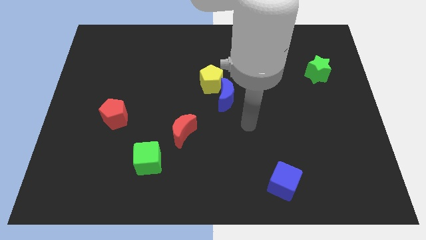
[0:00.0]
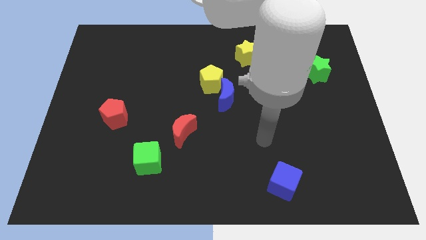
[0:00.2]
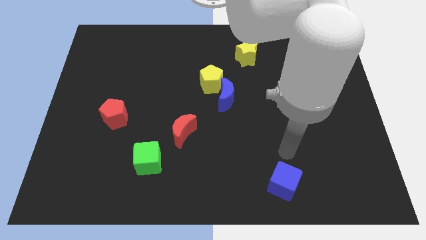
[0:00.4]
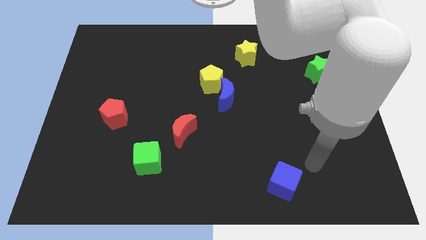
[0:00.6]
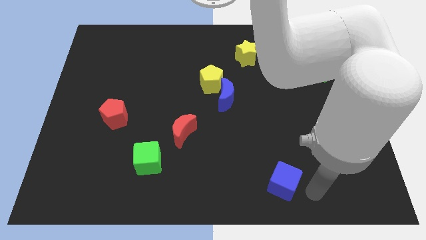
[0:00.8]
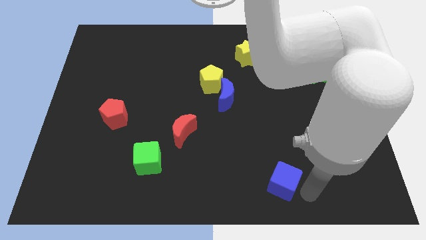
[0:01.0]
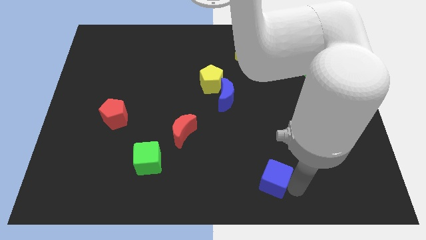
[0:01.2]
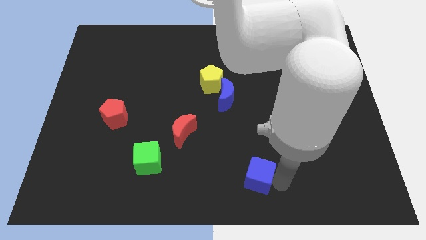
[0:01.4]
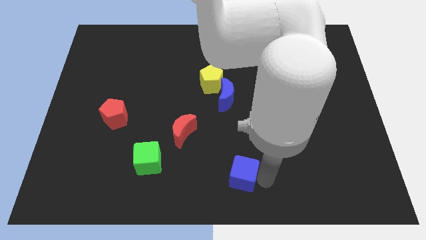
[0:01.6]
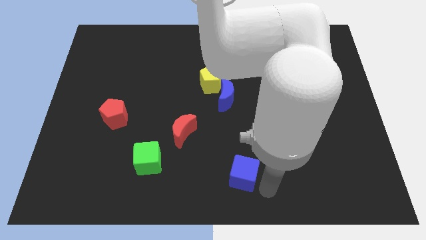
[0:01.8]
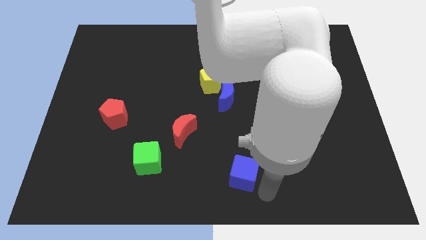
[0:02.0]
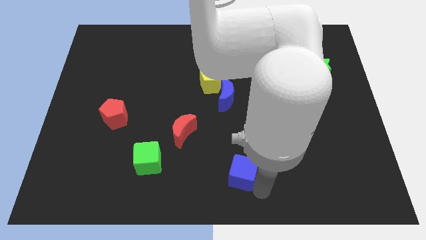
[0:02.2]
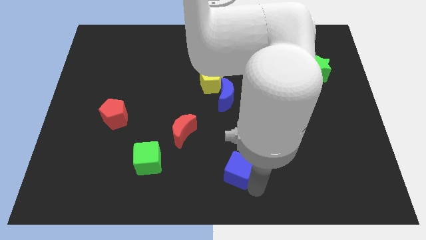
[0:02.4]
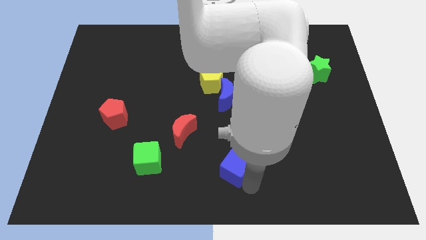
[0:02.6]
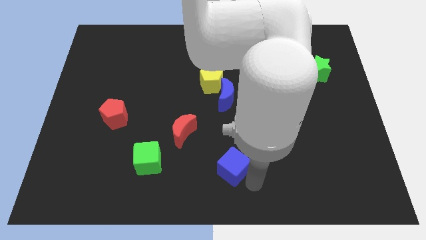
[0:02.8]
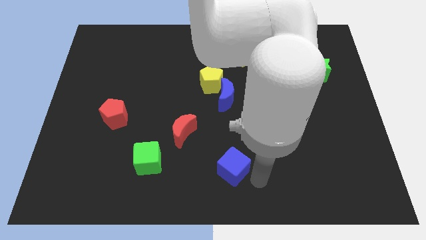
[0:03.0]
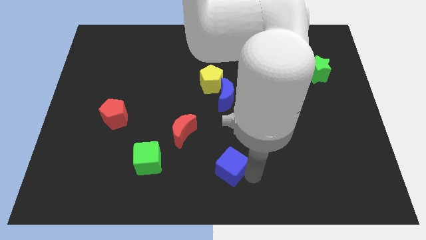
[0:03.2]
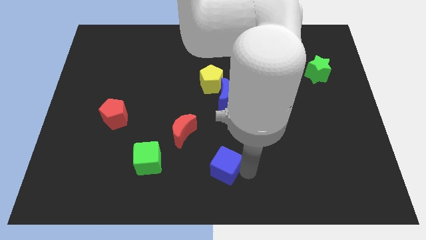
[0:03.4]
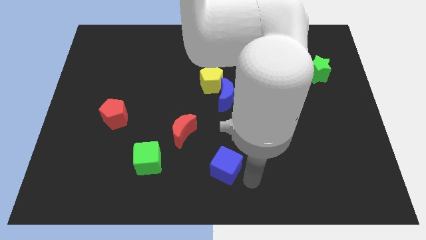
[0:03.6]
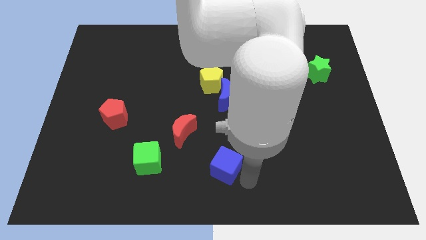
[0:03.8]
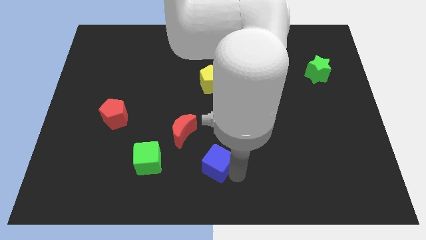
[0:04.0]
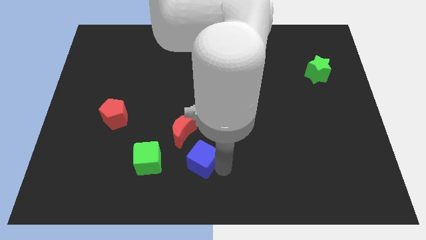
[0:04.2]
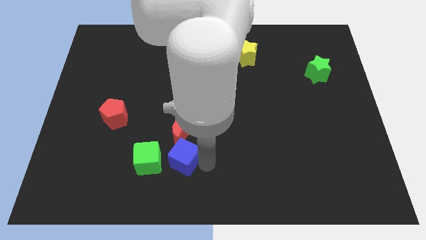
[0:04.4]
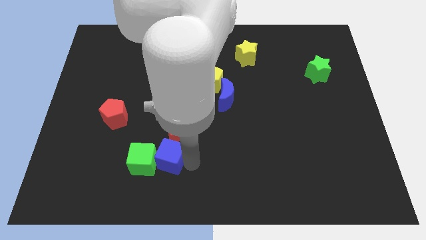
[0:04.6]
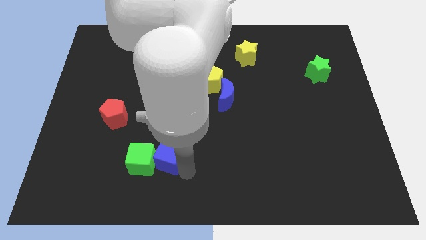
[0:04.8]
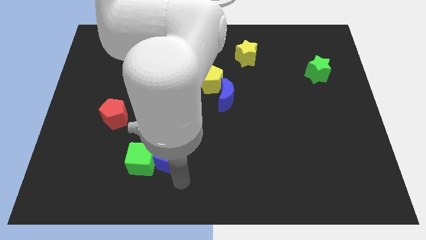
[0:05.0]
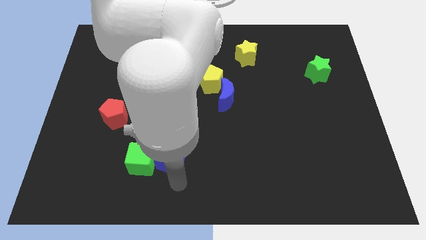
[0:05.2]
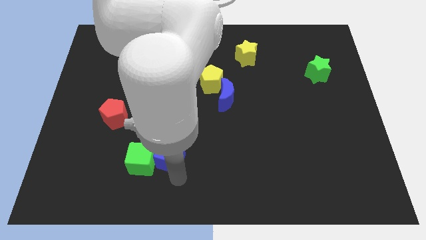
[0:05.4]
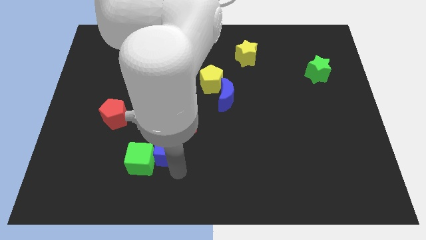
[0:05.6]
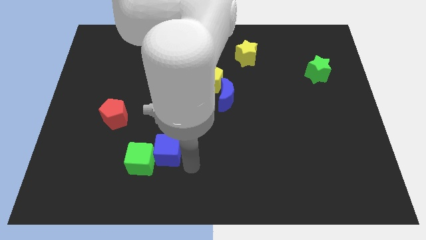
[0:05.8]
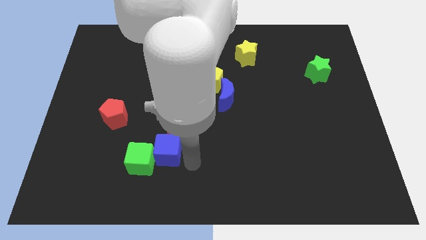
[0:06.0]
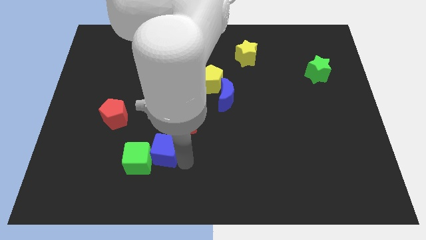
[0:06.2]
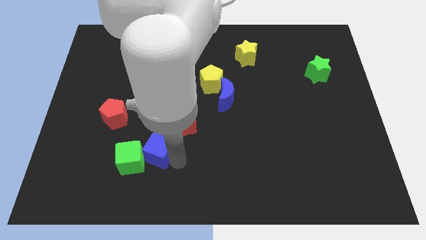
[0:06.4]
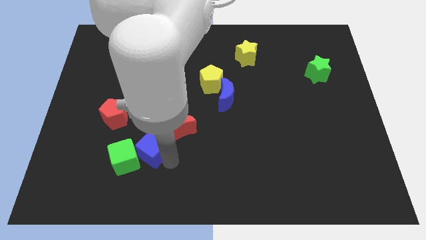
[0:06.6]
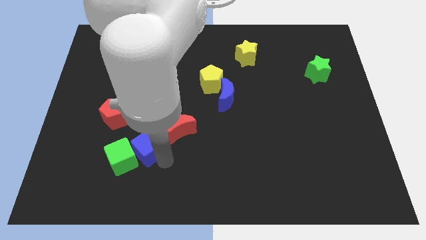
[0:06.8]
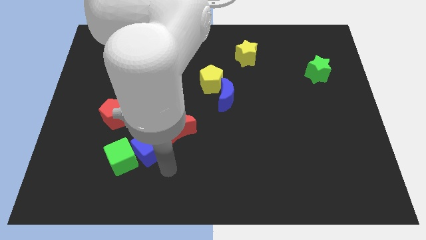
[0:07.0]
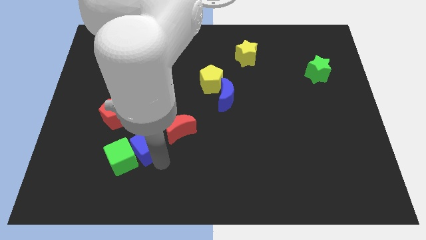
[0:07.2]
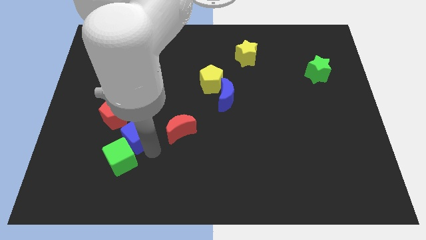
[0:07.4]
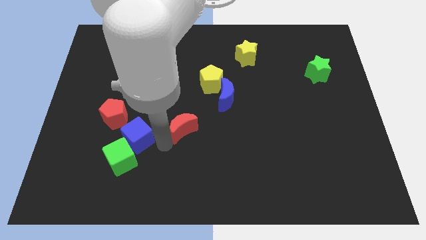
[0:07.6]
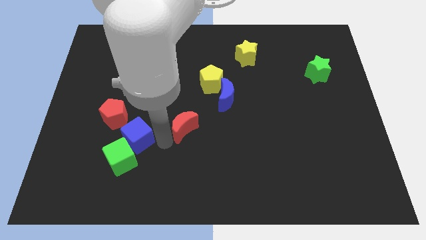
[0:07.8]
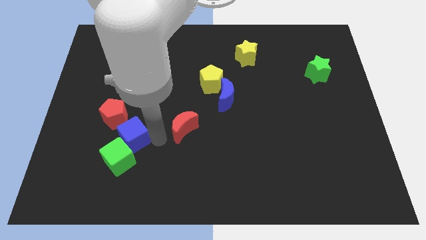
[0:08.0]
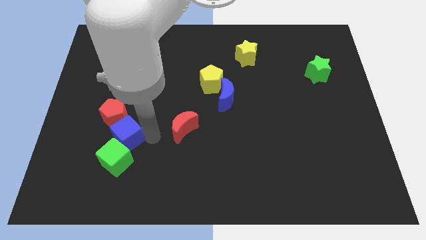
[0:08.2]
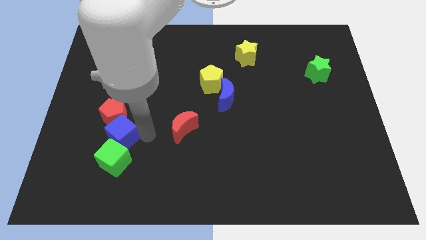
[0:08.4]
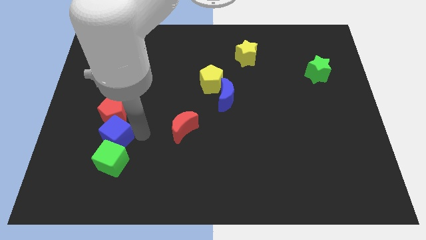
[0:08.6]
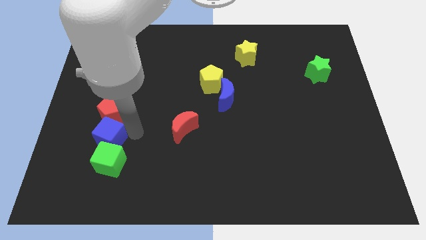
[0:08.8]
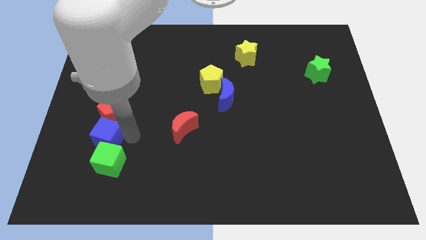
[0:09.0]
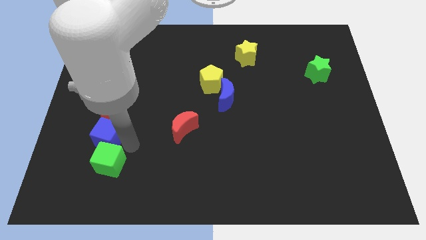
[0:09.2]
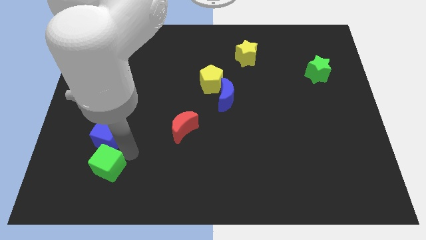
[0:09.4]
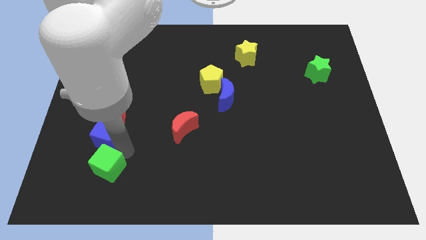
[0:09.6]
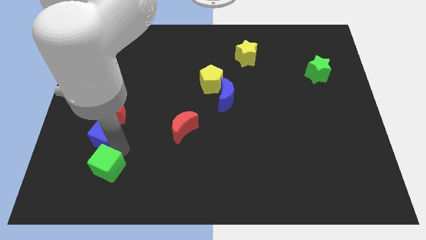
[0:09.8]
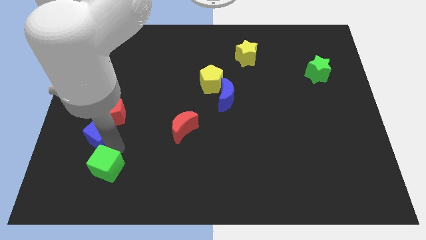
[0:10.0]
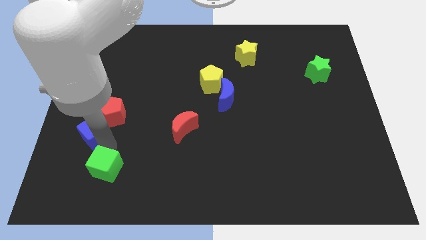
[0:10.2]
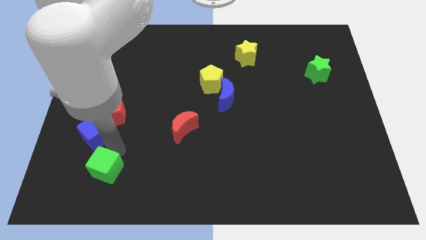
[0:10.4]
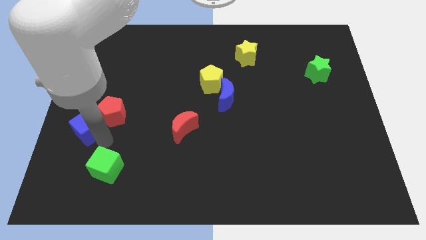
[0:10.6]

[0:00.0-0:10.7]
push the blue cube to the center left

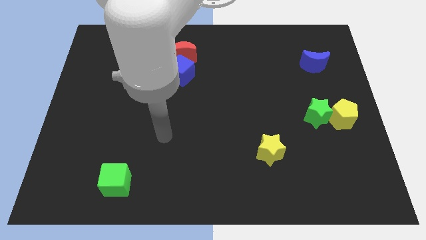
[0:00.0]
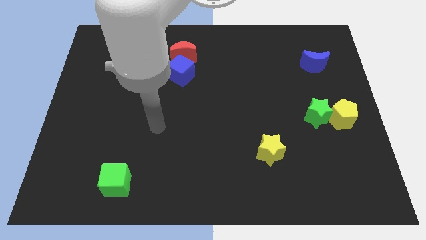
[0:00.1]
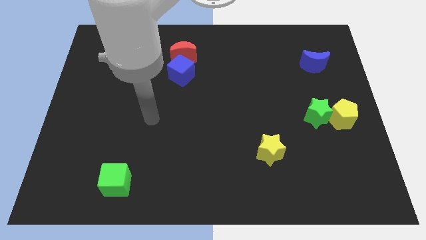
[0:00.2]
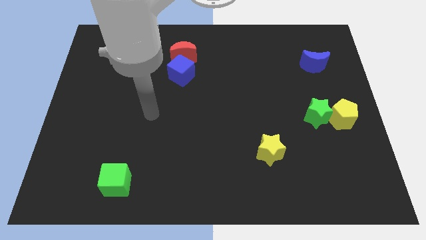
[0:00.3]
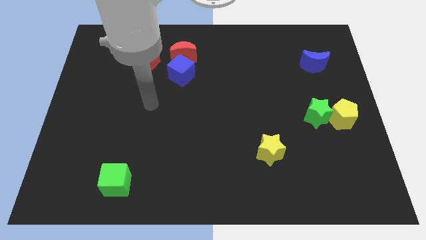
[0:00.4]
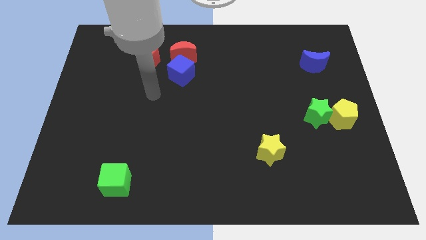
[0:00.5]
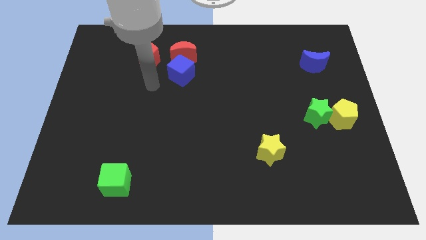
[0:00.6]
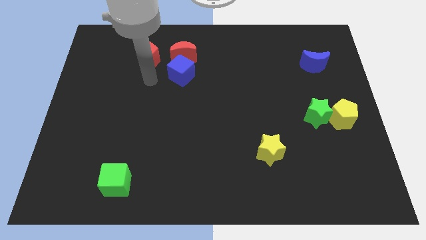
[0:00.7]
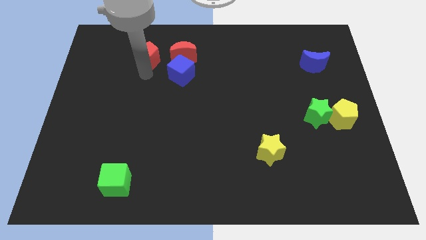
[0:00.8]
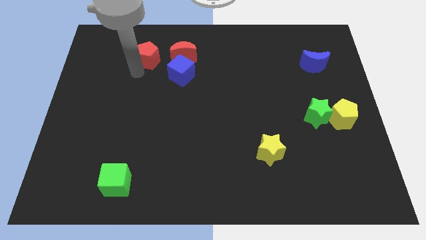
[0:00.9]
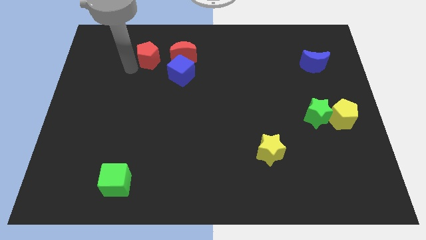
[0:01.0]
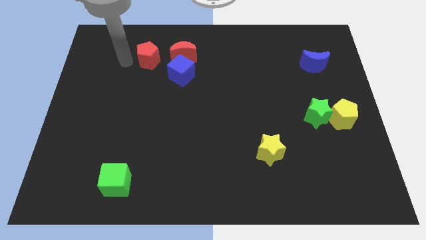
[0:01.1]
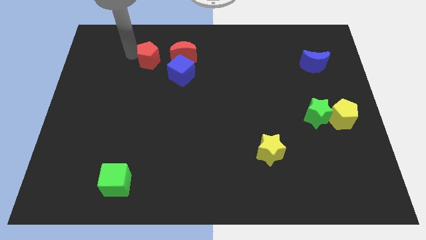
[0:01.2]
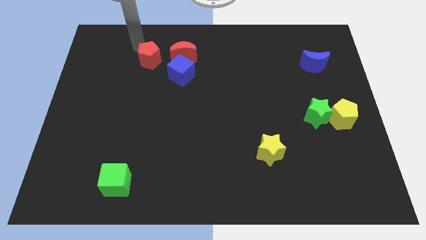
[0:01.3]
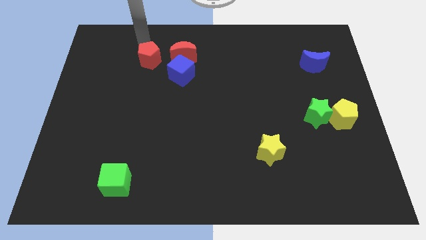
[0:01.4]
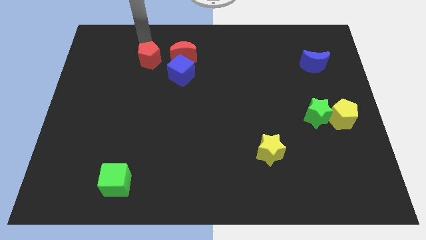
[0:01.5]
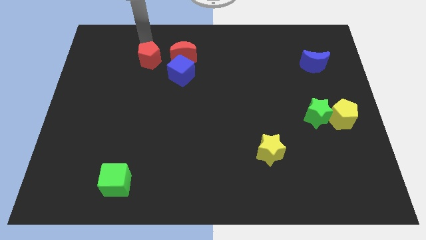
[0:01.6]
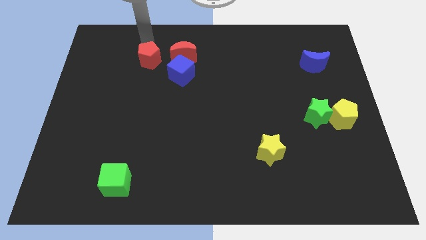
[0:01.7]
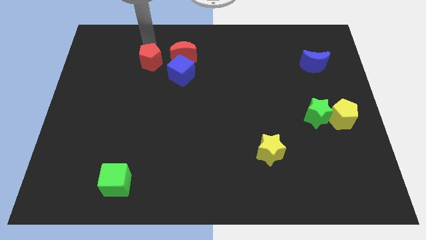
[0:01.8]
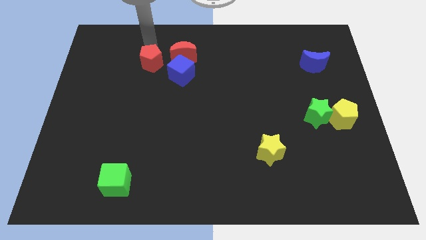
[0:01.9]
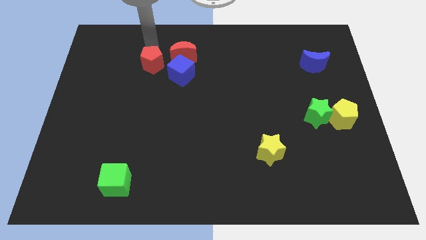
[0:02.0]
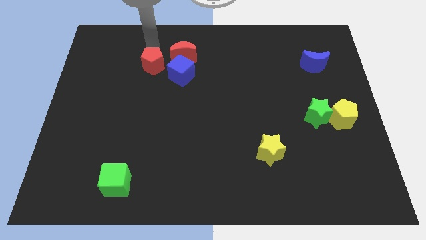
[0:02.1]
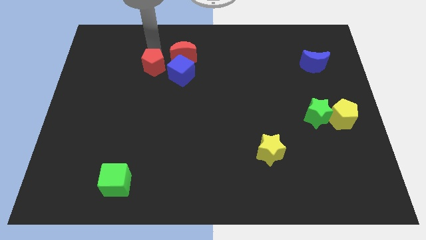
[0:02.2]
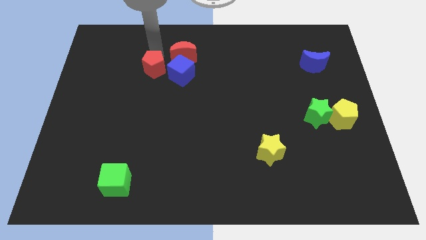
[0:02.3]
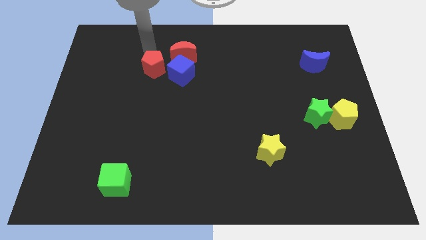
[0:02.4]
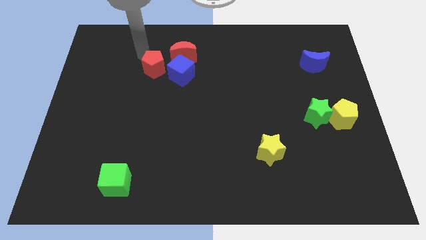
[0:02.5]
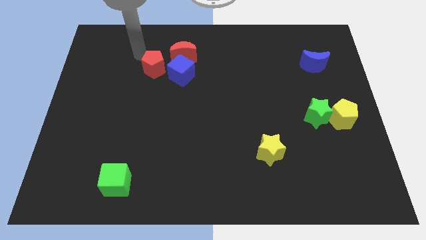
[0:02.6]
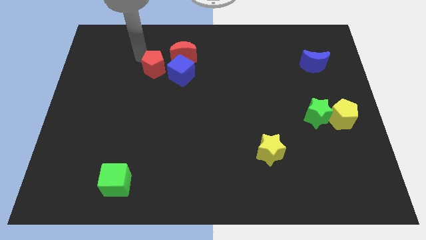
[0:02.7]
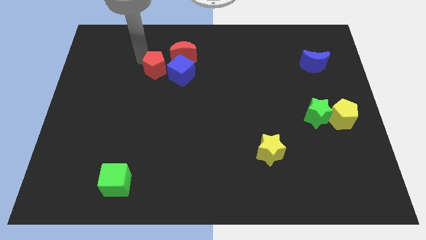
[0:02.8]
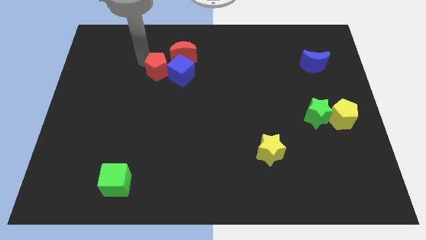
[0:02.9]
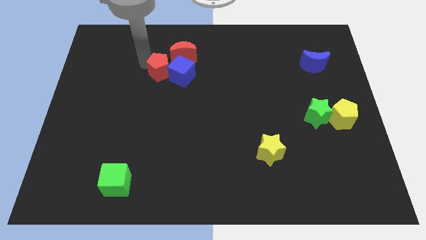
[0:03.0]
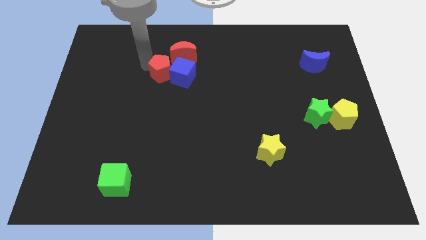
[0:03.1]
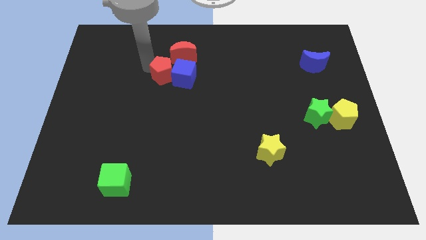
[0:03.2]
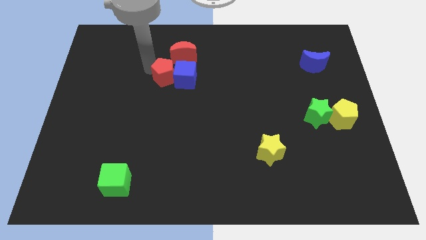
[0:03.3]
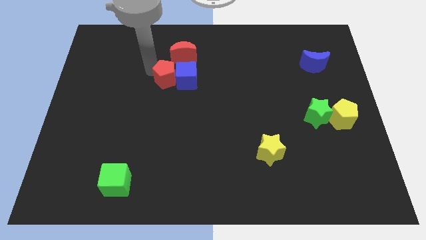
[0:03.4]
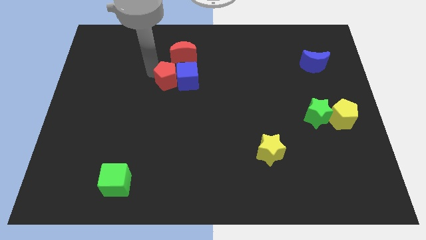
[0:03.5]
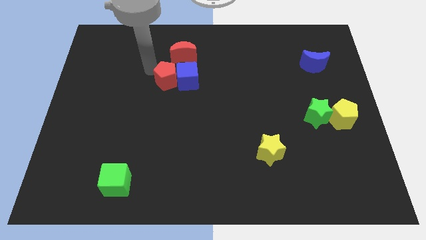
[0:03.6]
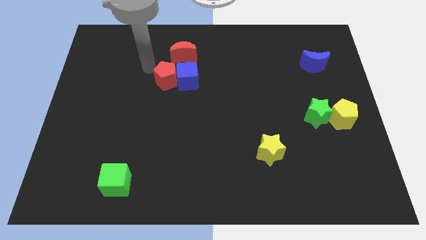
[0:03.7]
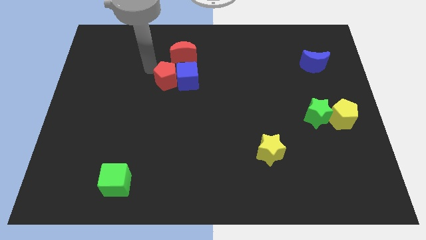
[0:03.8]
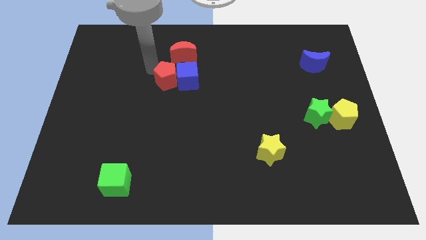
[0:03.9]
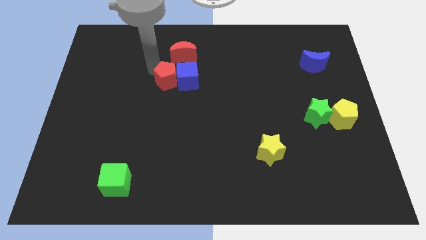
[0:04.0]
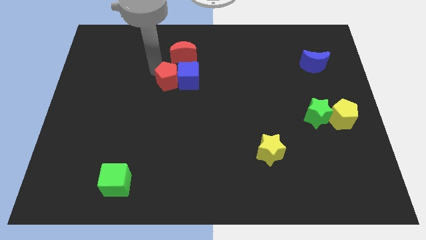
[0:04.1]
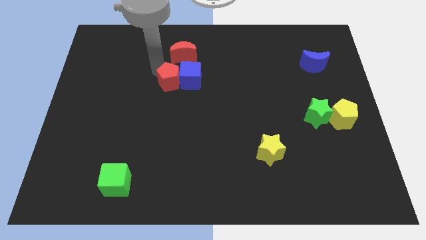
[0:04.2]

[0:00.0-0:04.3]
slide the red pentagon to the middle of the board
